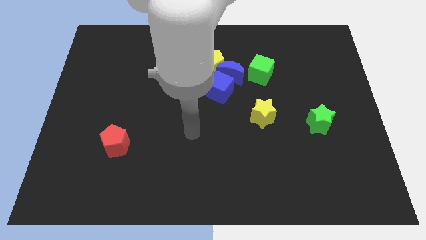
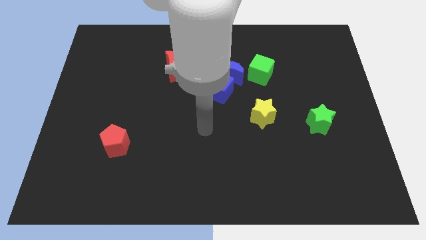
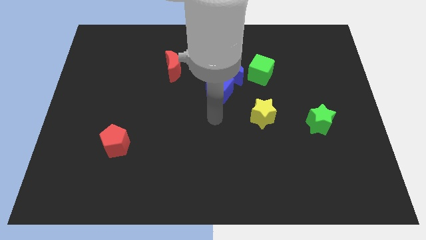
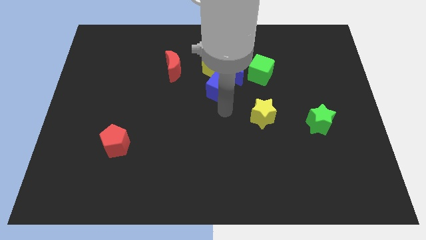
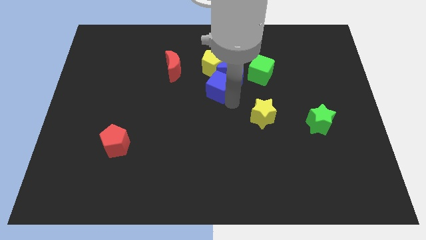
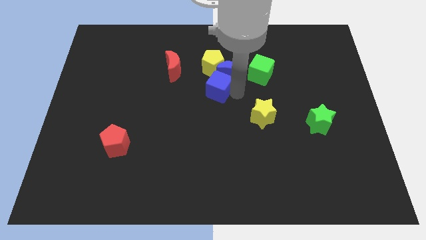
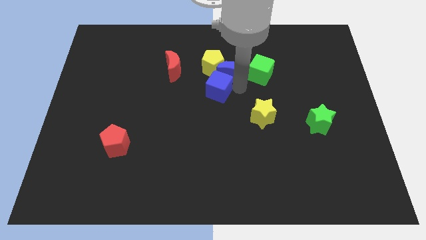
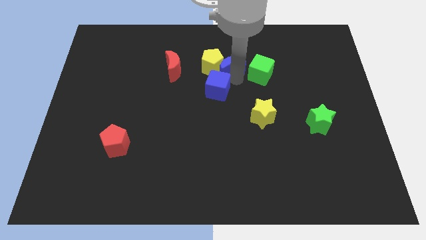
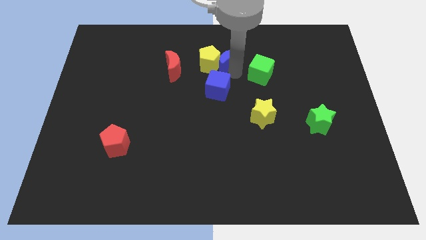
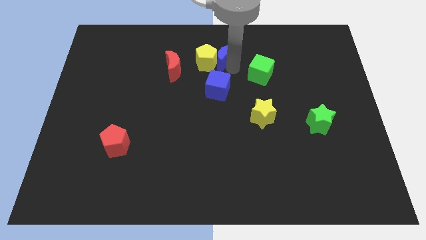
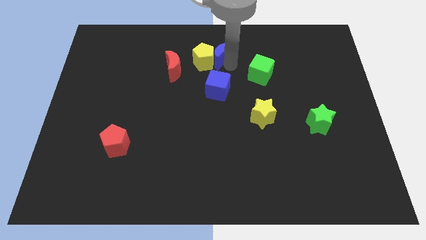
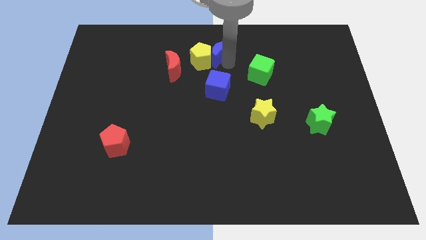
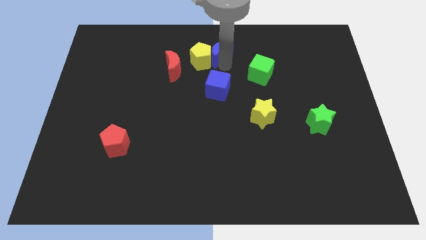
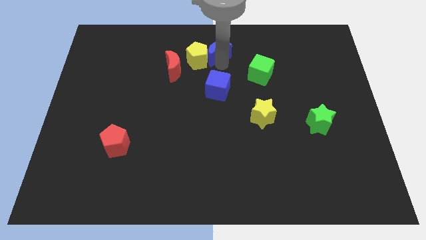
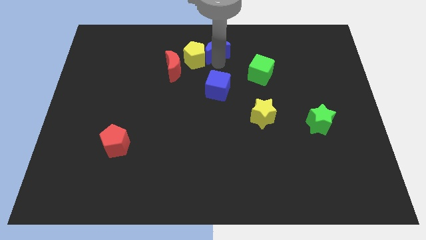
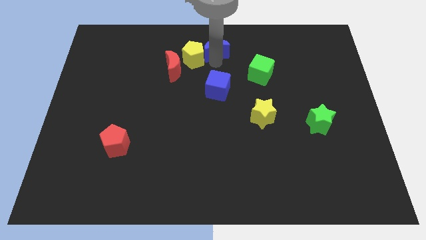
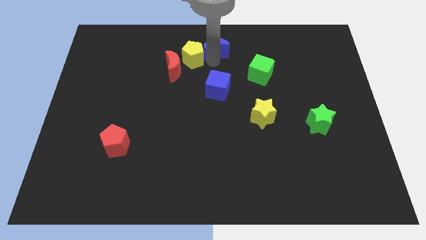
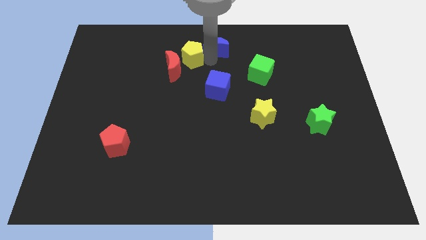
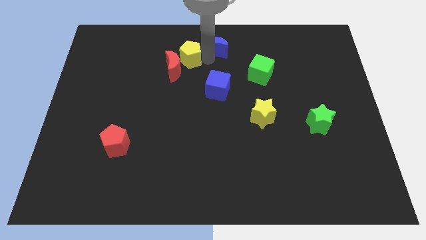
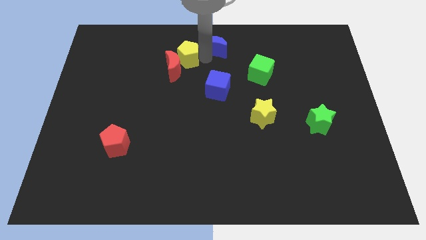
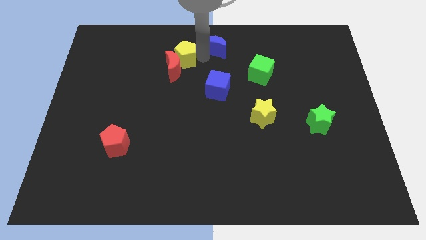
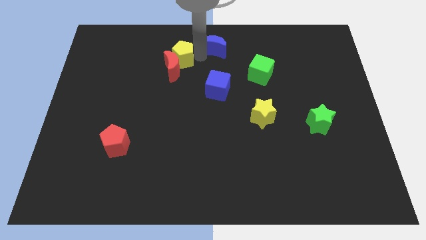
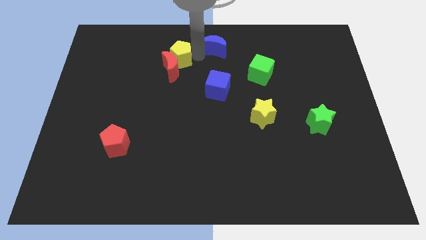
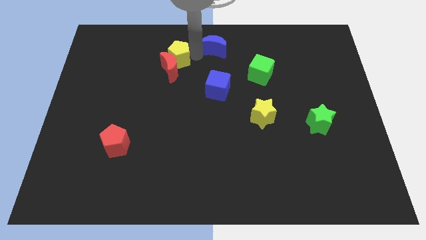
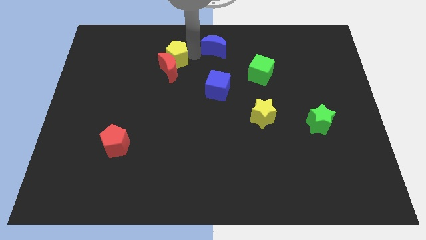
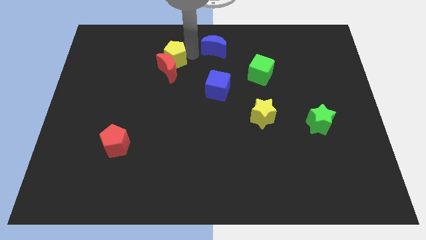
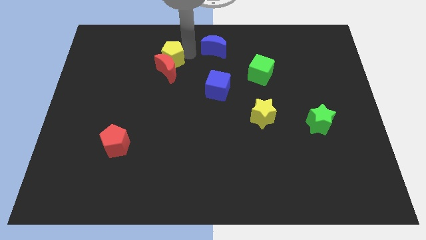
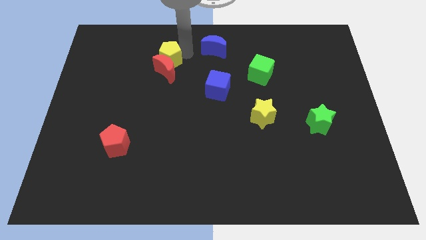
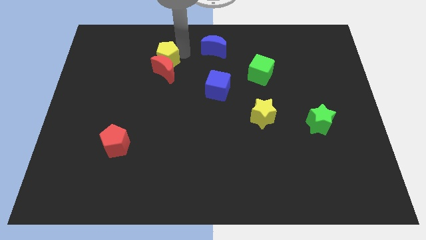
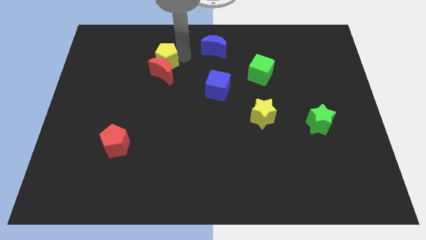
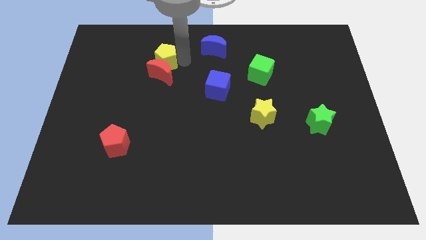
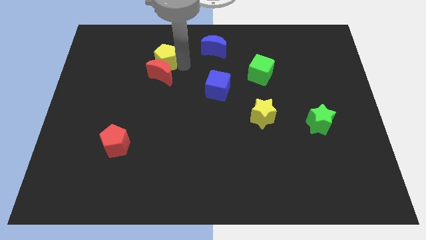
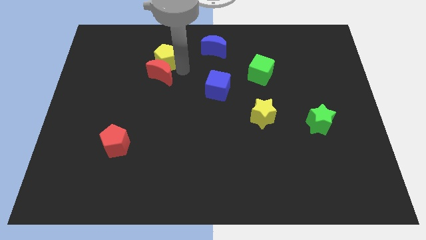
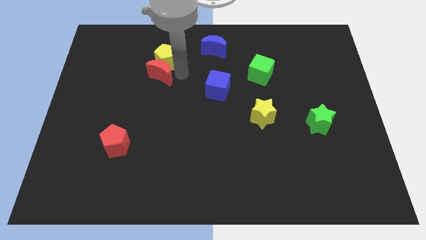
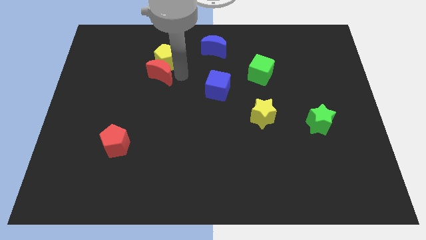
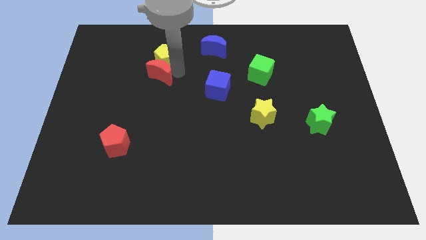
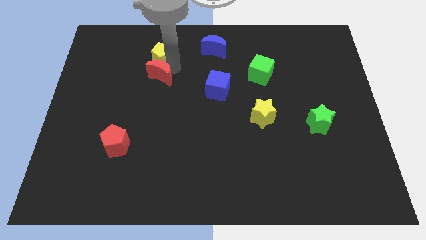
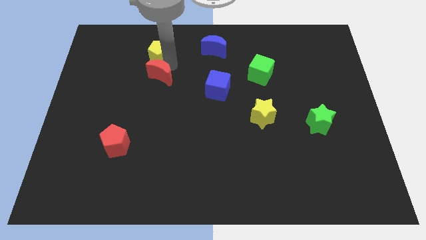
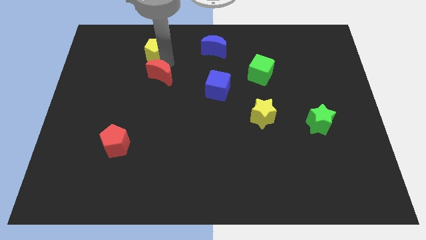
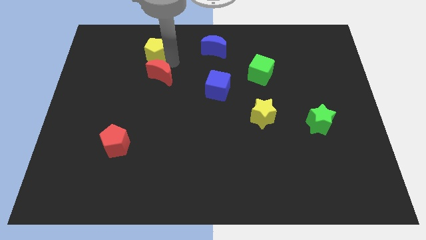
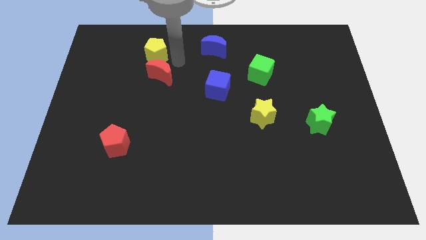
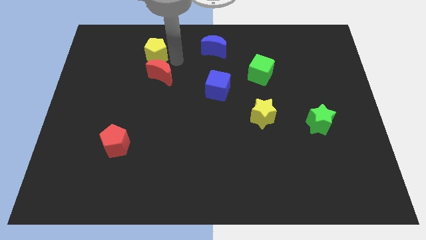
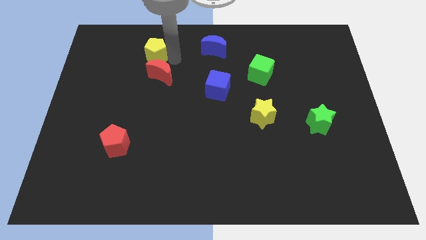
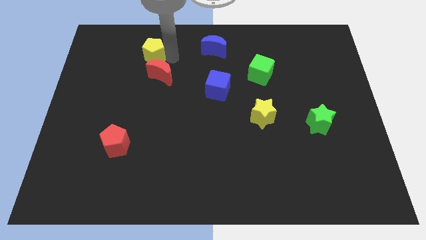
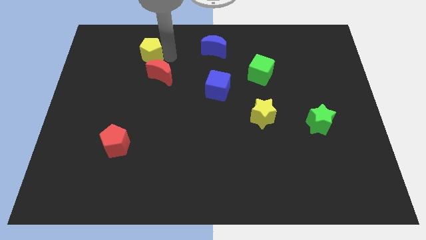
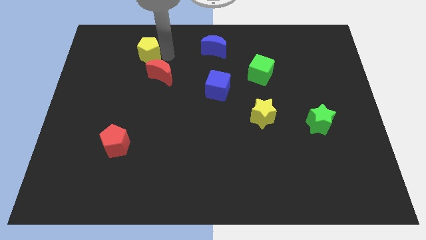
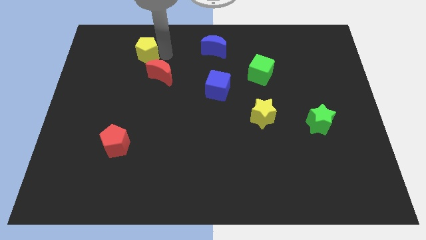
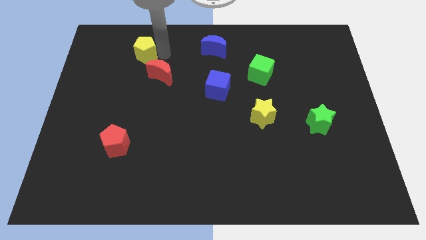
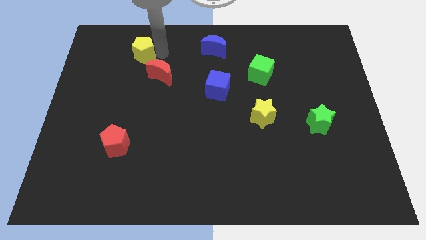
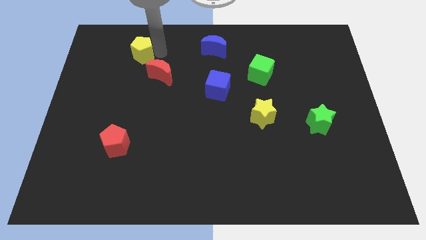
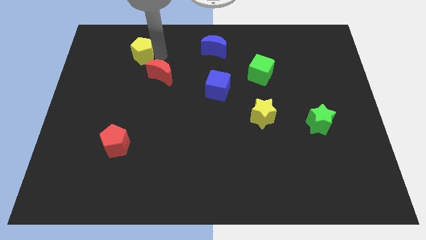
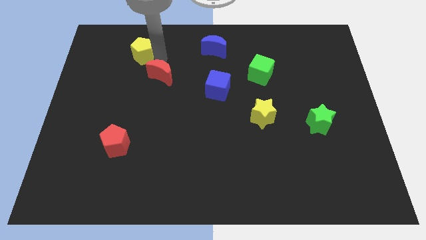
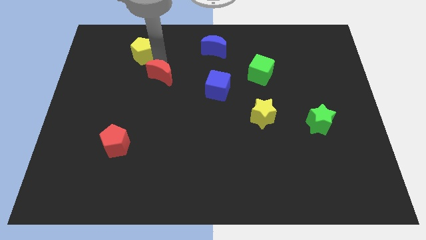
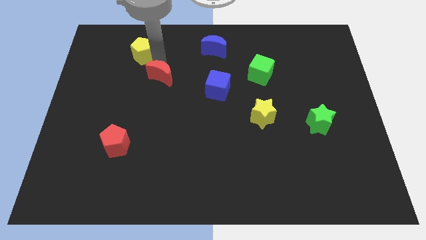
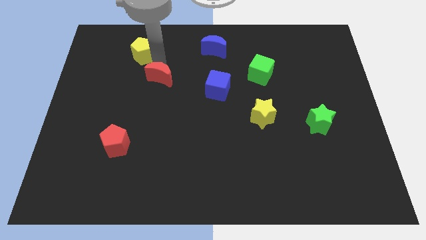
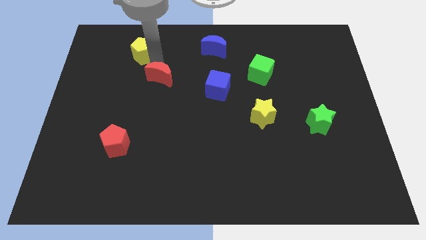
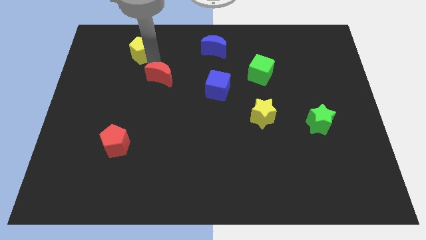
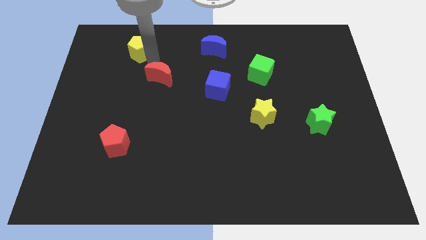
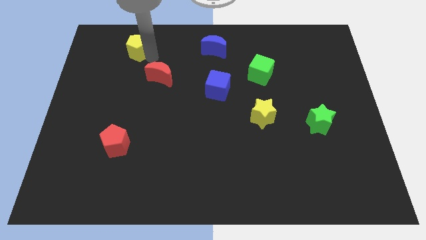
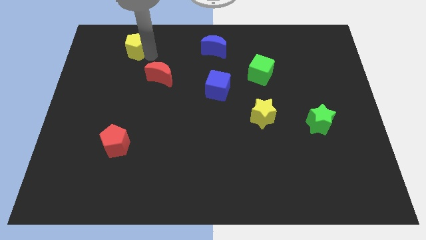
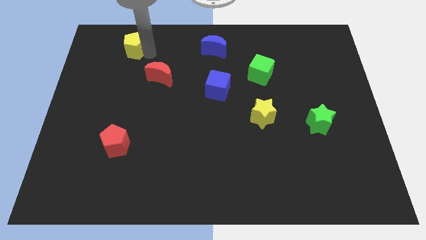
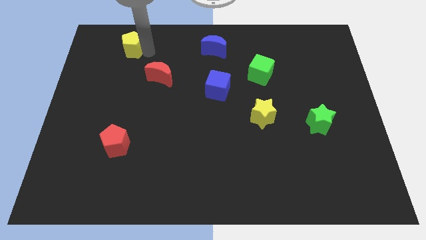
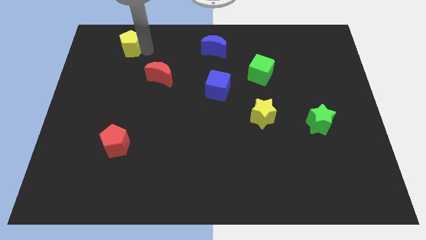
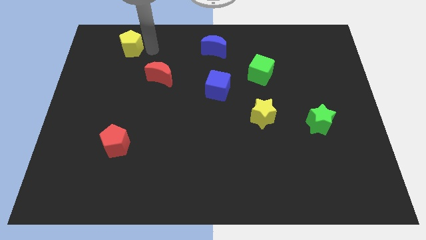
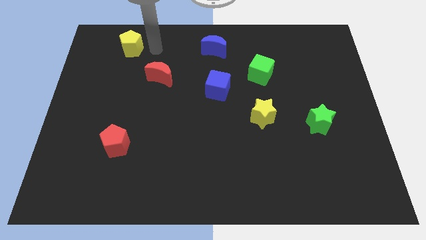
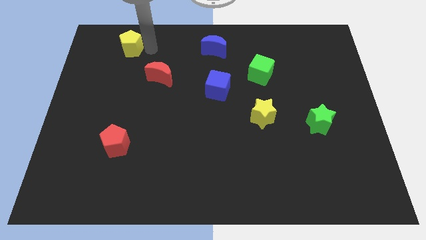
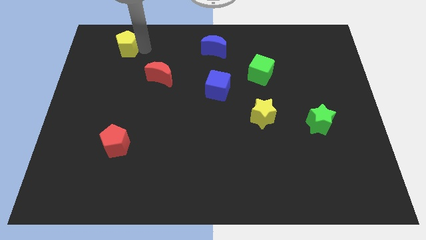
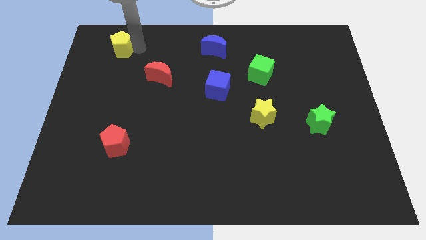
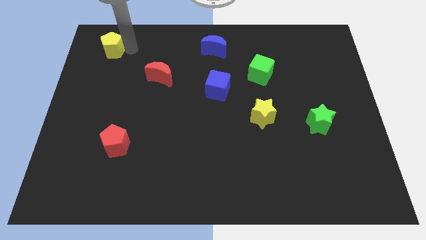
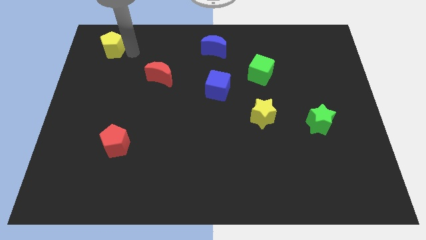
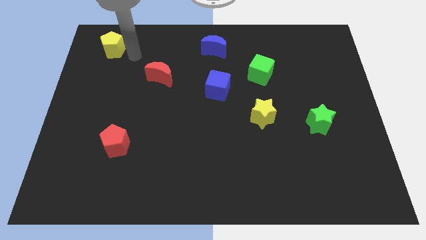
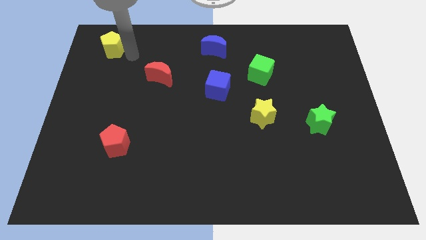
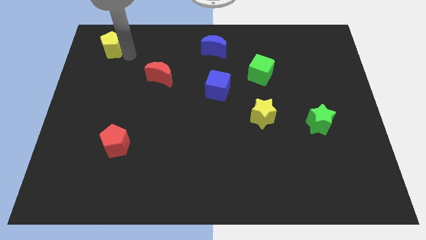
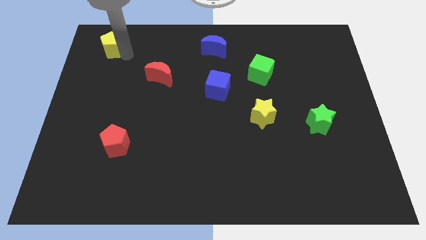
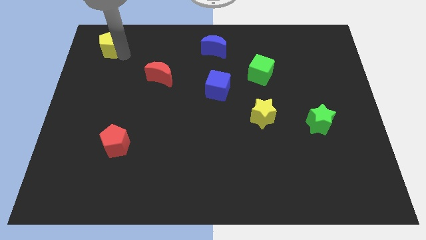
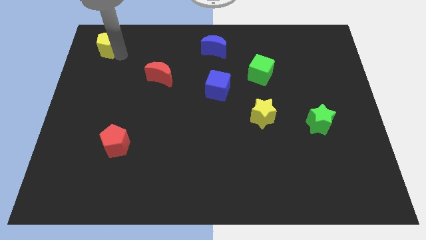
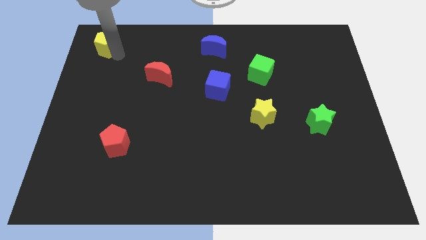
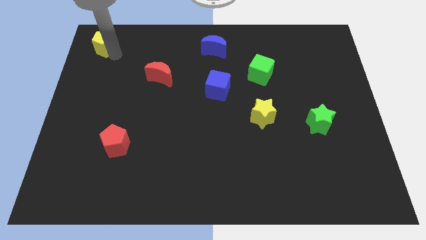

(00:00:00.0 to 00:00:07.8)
move the yellow pentagon to the top left
